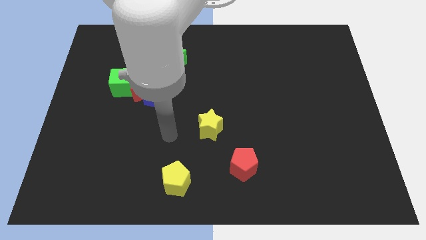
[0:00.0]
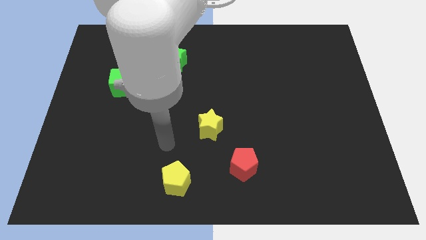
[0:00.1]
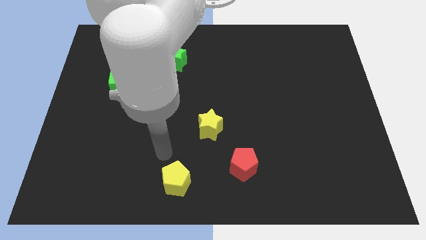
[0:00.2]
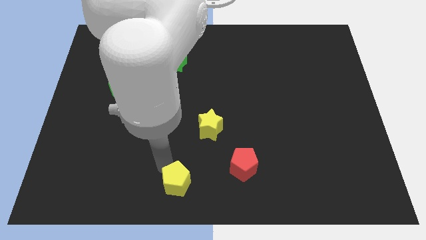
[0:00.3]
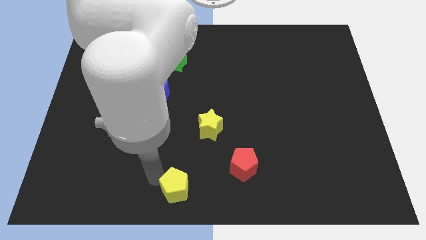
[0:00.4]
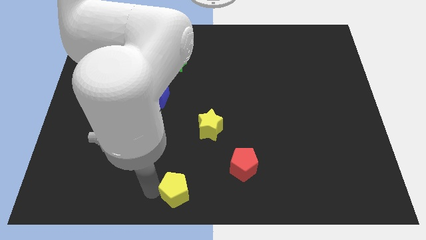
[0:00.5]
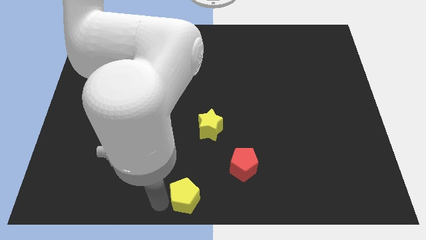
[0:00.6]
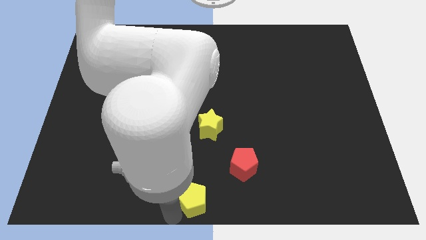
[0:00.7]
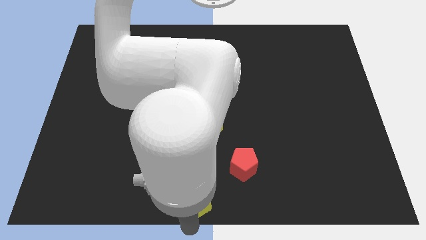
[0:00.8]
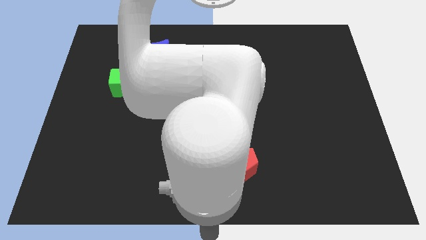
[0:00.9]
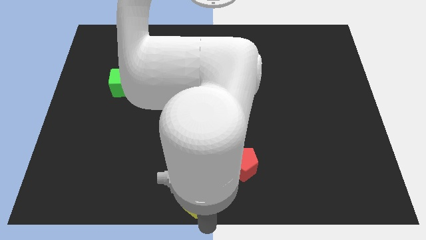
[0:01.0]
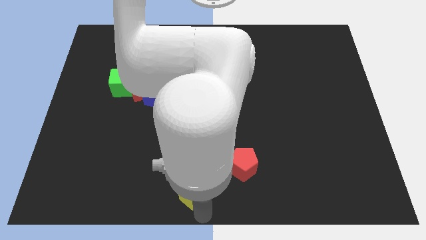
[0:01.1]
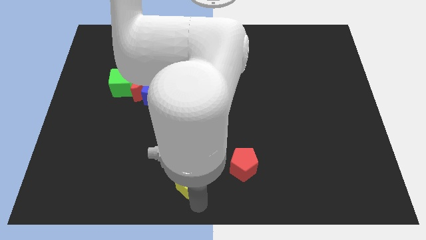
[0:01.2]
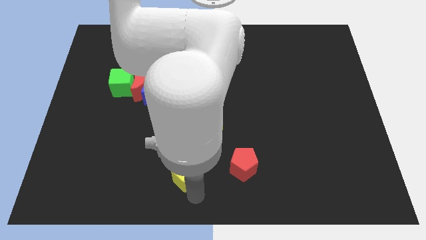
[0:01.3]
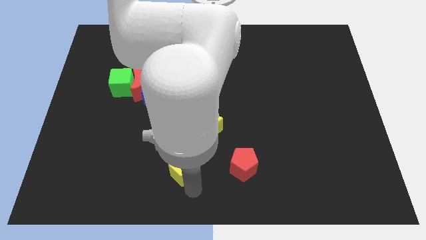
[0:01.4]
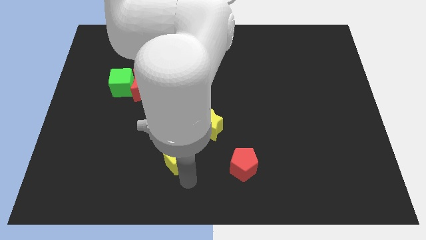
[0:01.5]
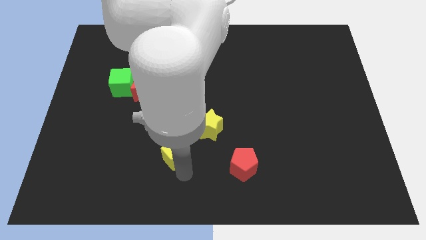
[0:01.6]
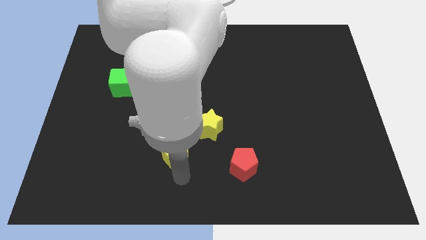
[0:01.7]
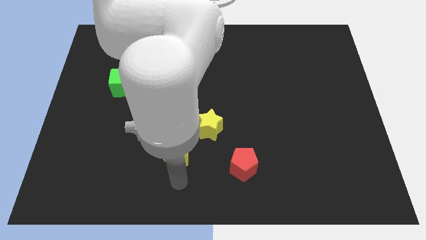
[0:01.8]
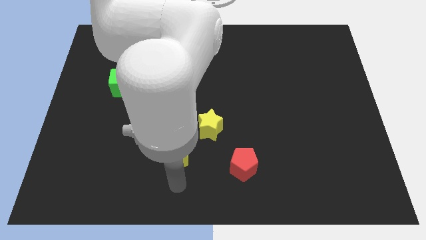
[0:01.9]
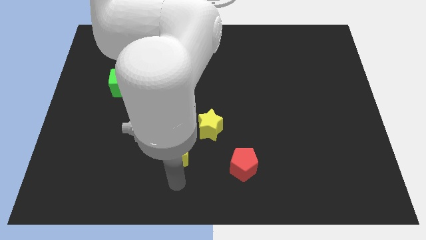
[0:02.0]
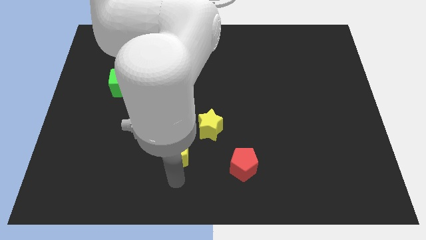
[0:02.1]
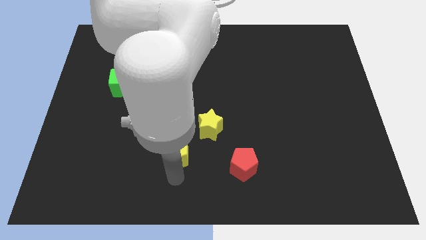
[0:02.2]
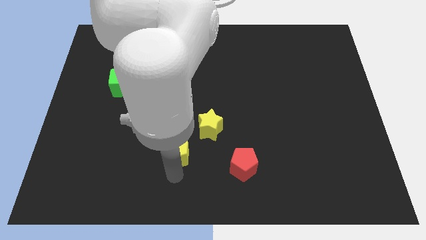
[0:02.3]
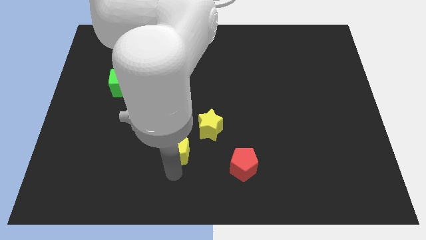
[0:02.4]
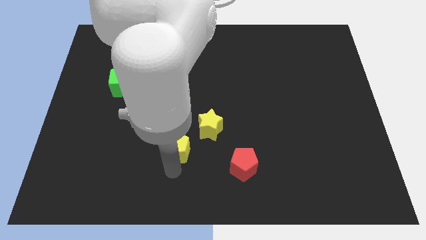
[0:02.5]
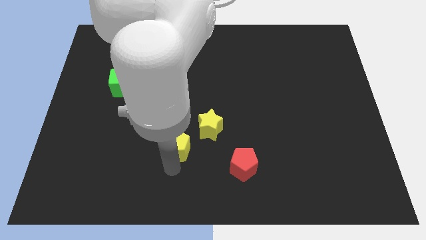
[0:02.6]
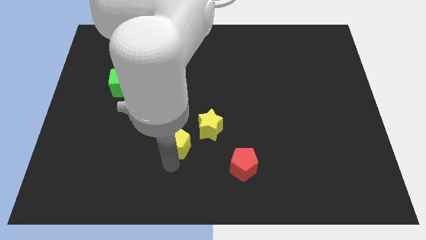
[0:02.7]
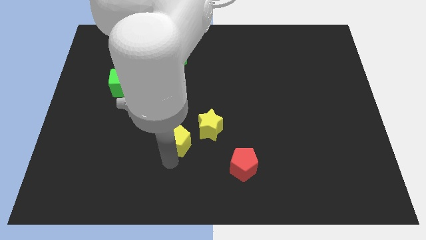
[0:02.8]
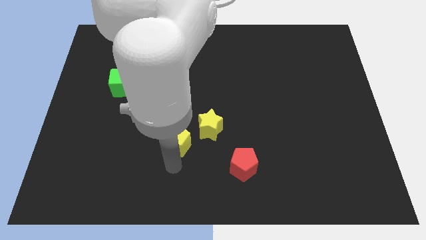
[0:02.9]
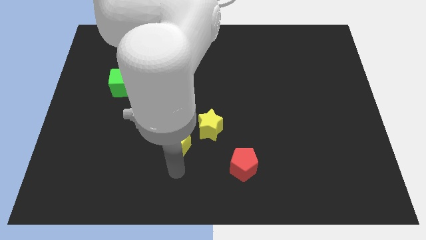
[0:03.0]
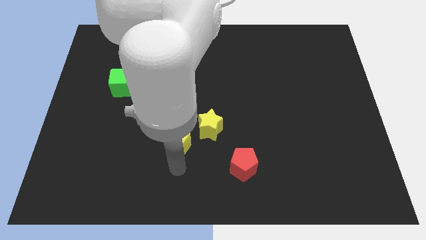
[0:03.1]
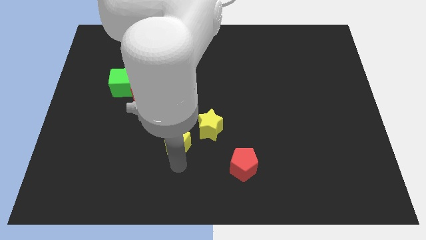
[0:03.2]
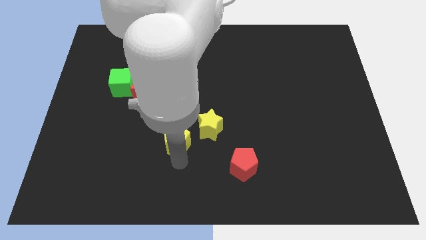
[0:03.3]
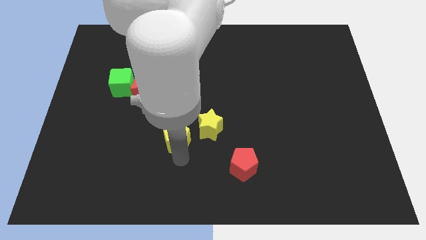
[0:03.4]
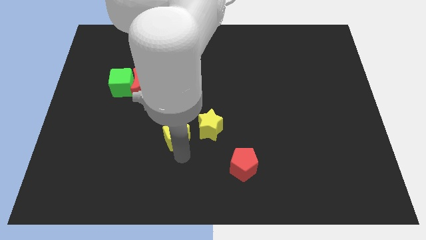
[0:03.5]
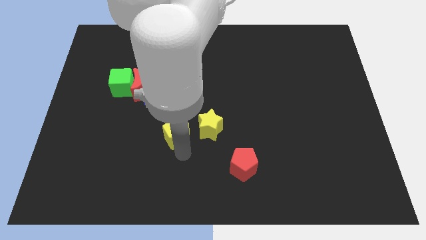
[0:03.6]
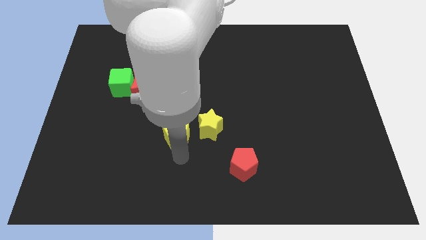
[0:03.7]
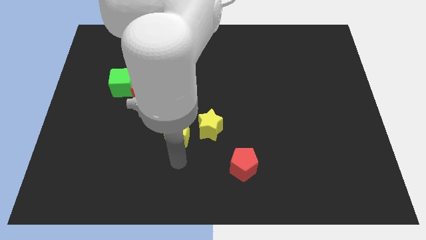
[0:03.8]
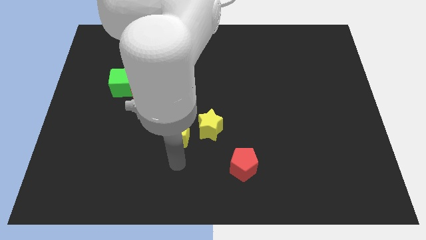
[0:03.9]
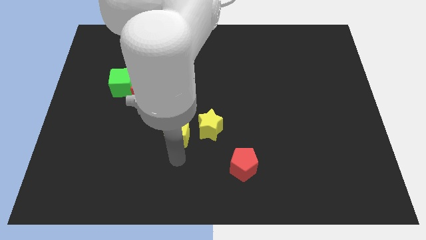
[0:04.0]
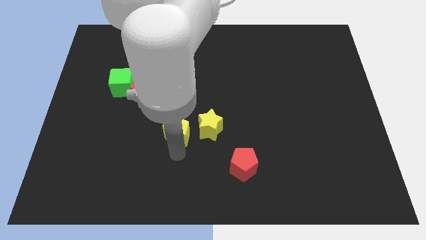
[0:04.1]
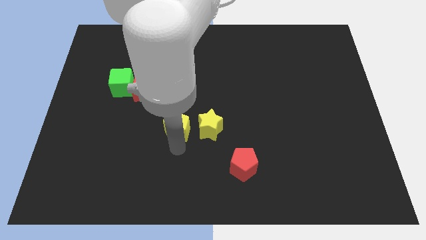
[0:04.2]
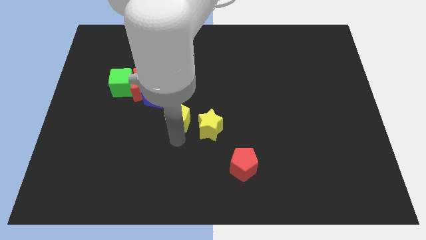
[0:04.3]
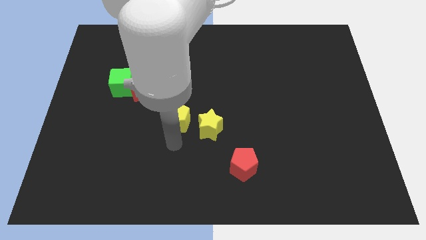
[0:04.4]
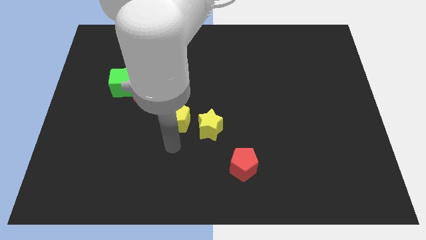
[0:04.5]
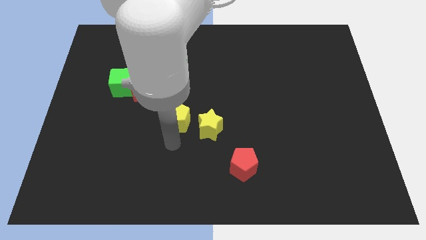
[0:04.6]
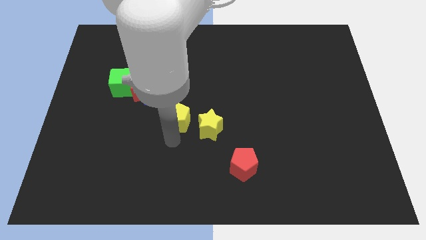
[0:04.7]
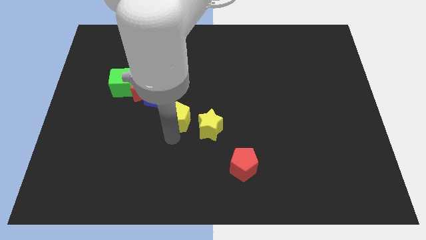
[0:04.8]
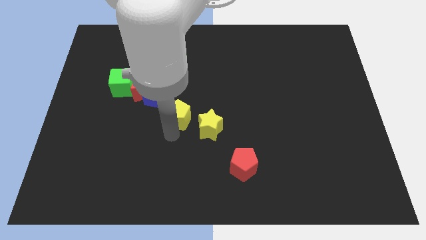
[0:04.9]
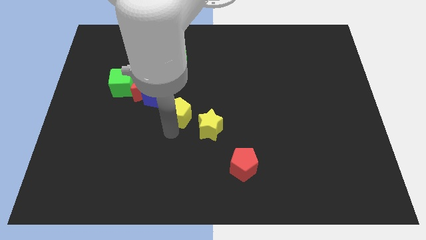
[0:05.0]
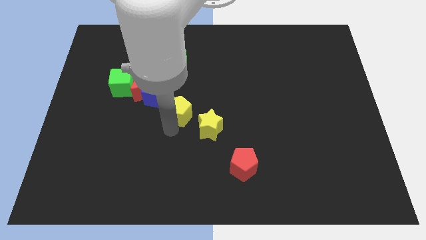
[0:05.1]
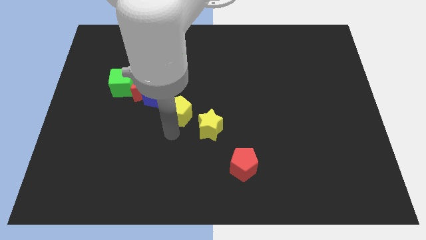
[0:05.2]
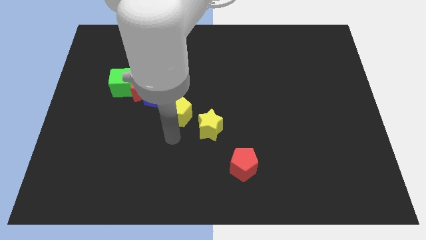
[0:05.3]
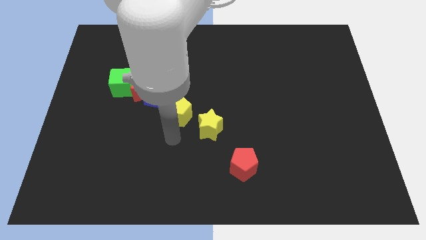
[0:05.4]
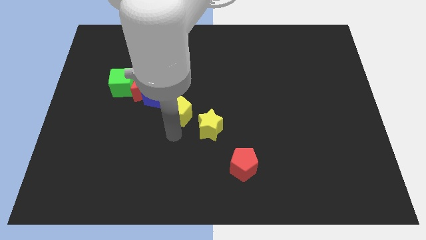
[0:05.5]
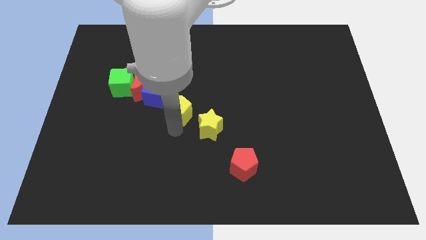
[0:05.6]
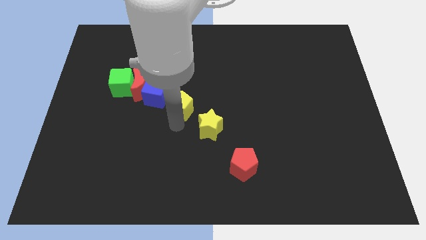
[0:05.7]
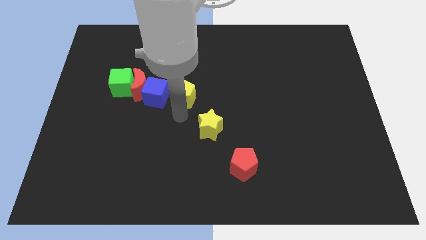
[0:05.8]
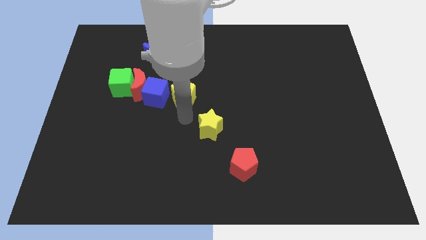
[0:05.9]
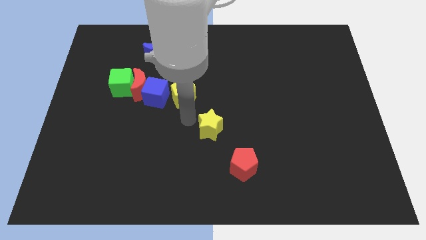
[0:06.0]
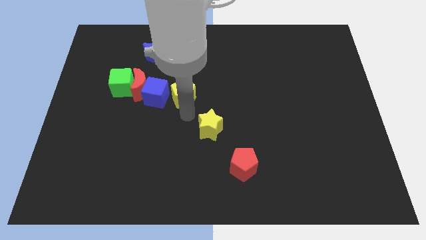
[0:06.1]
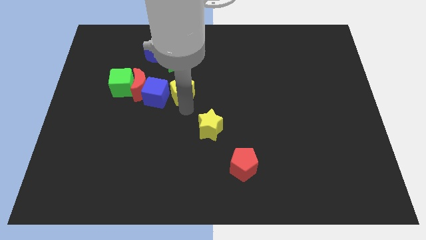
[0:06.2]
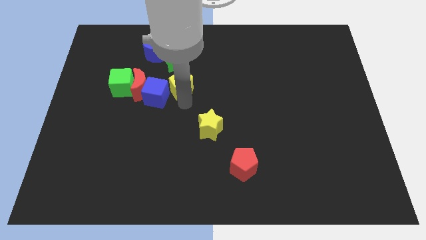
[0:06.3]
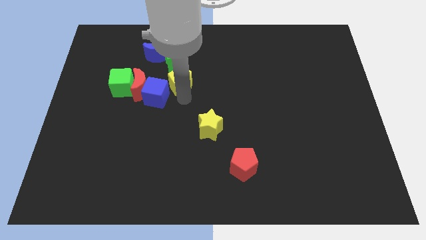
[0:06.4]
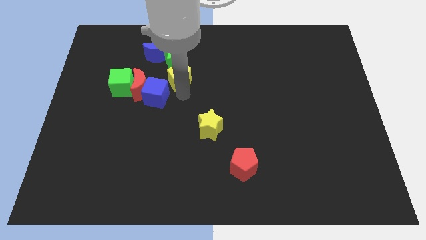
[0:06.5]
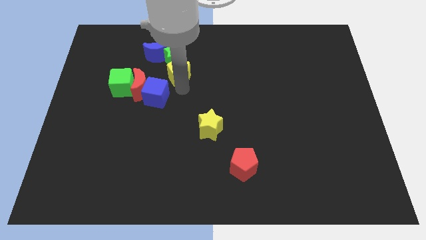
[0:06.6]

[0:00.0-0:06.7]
slide the yellow pentagon close to the green star

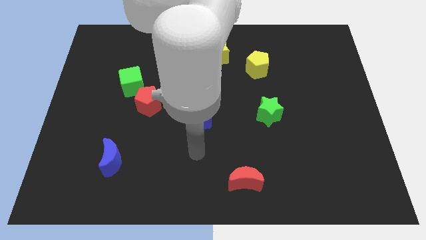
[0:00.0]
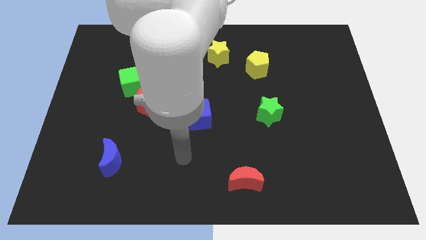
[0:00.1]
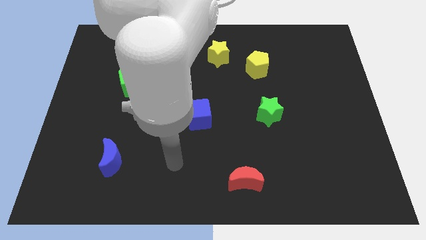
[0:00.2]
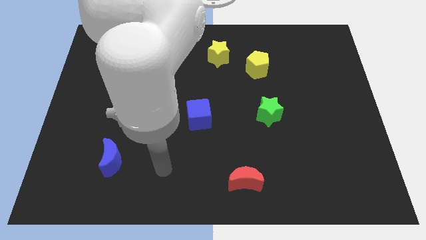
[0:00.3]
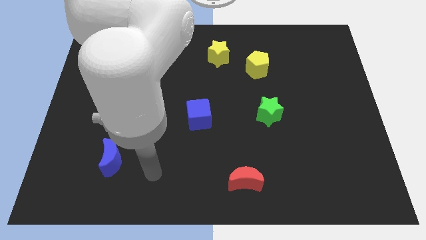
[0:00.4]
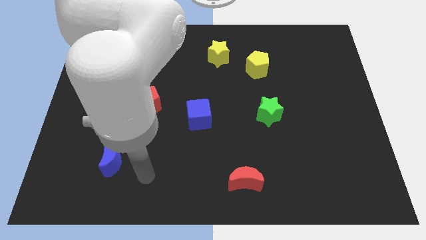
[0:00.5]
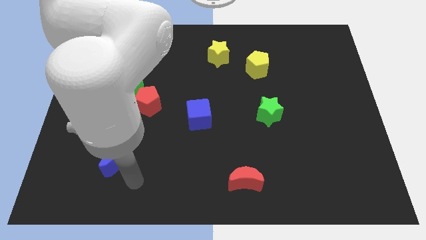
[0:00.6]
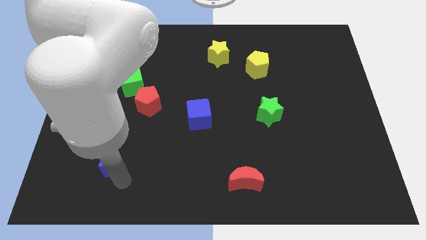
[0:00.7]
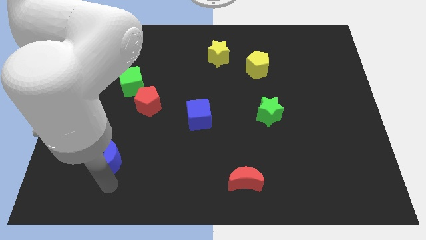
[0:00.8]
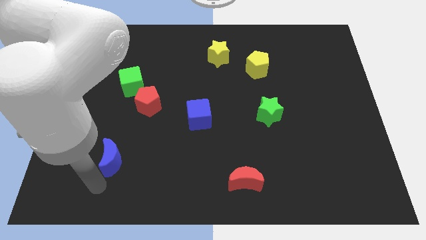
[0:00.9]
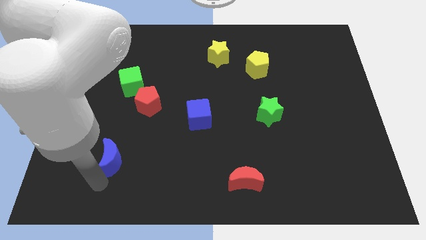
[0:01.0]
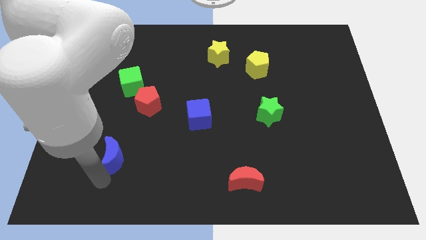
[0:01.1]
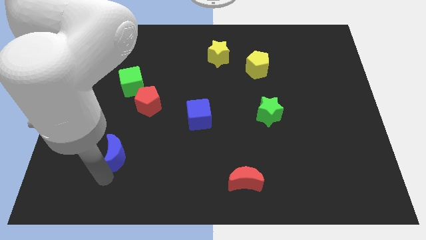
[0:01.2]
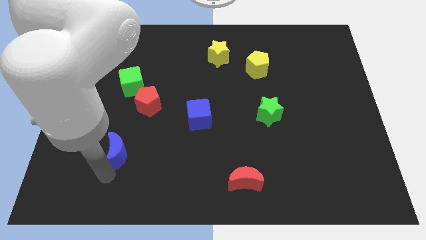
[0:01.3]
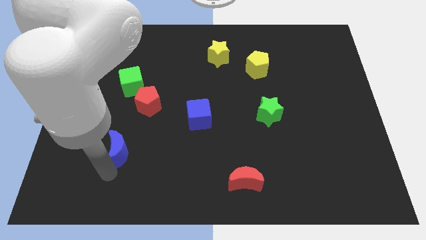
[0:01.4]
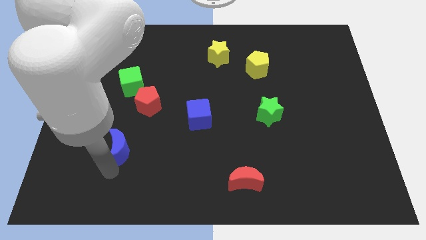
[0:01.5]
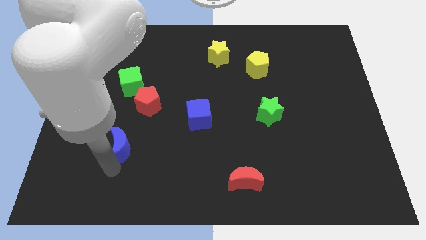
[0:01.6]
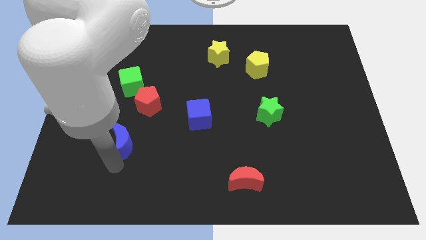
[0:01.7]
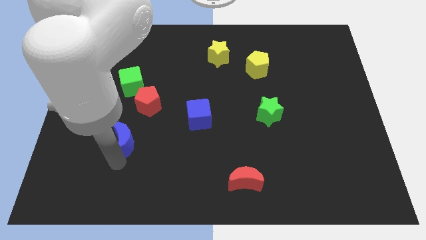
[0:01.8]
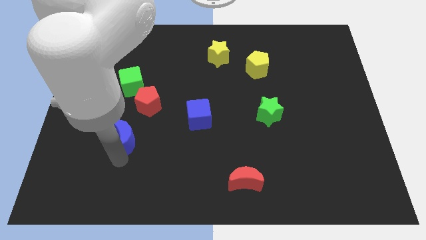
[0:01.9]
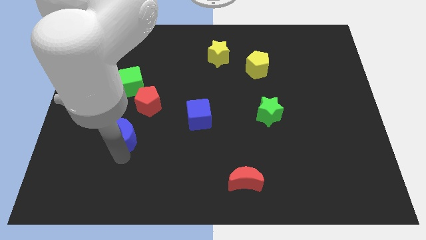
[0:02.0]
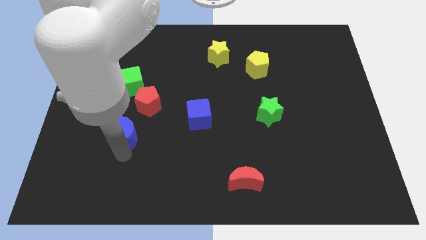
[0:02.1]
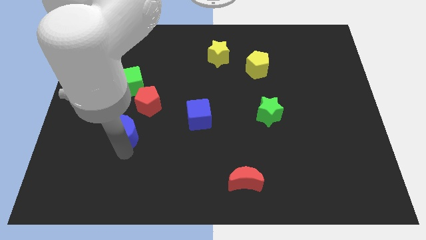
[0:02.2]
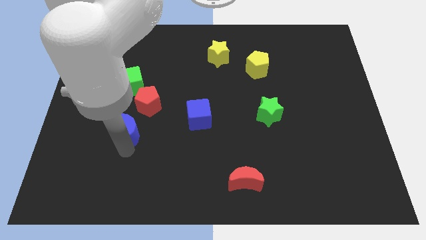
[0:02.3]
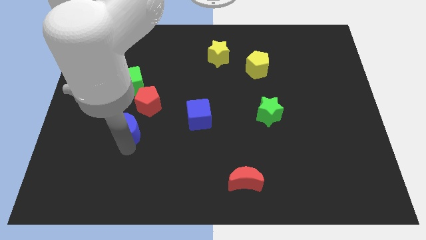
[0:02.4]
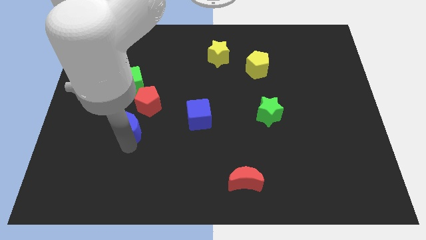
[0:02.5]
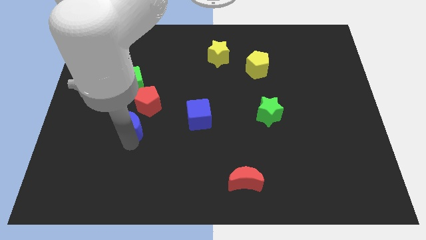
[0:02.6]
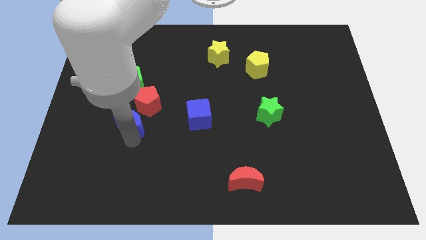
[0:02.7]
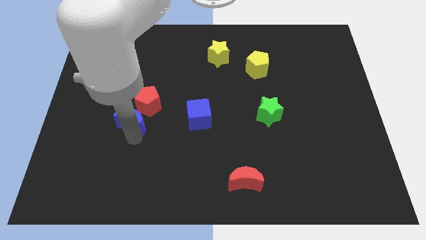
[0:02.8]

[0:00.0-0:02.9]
move the blue moon close to the red pentagon
